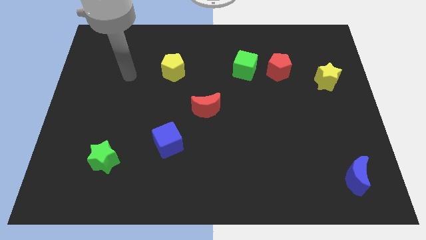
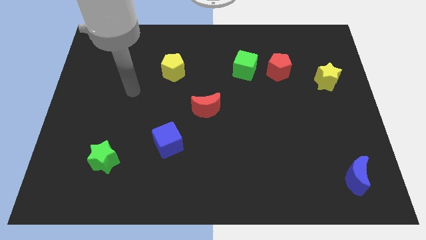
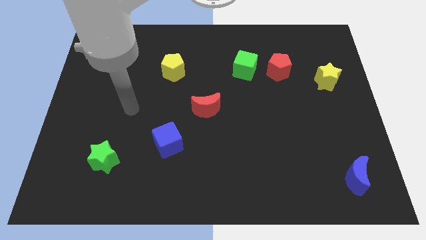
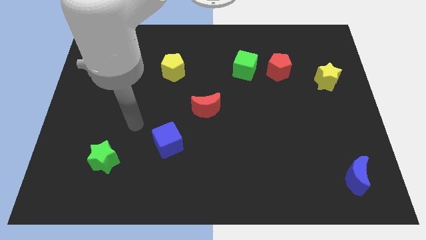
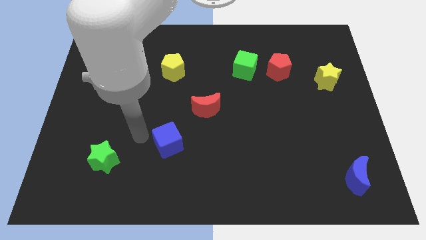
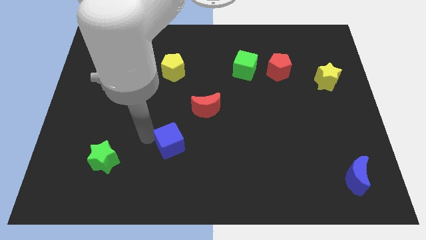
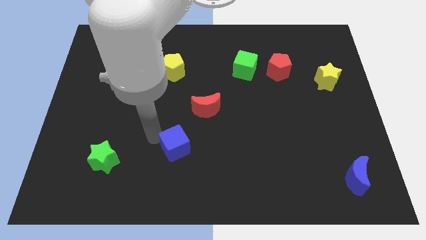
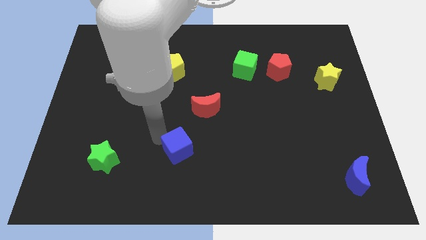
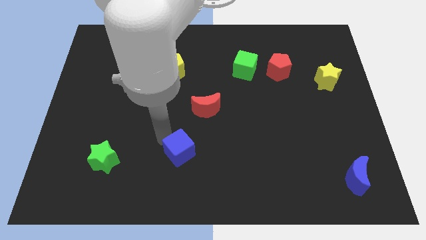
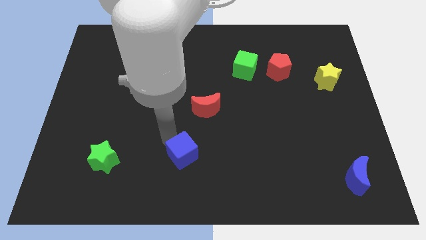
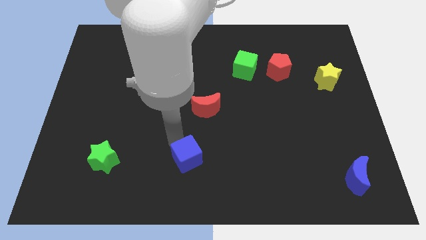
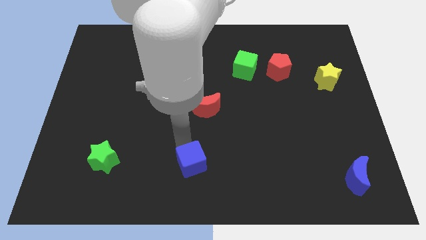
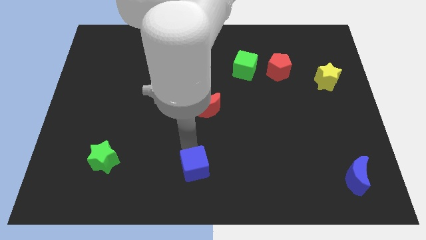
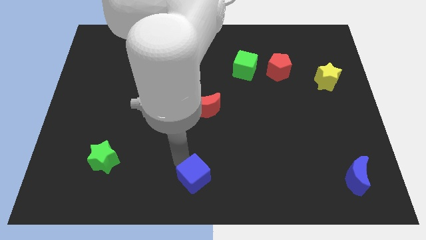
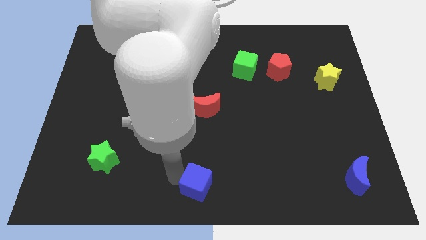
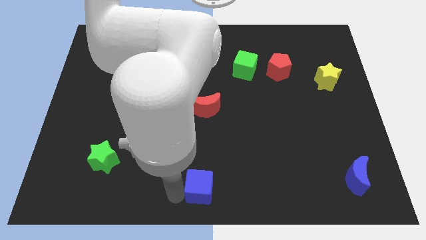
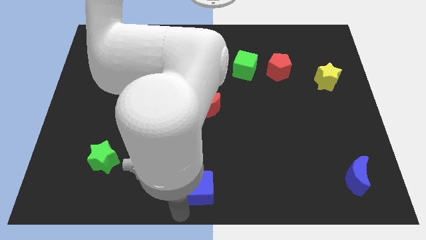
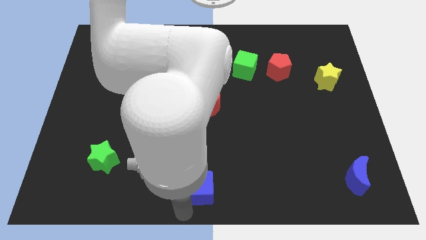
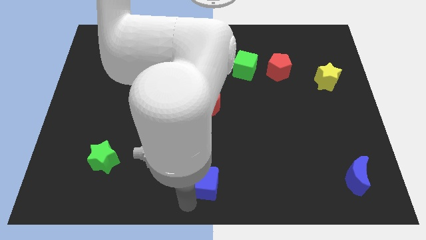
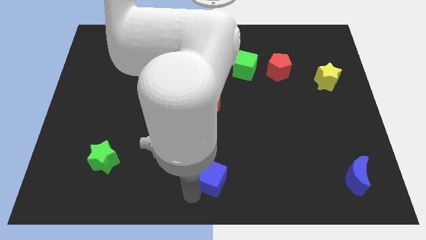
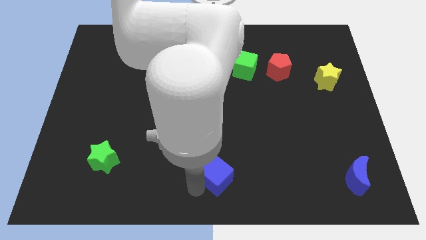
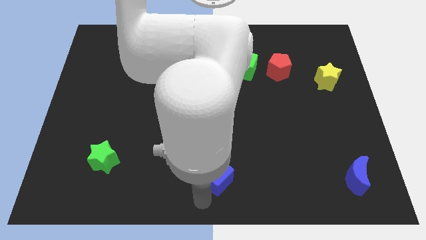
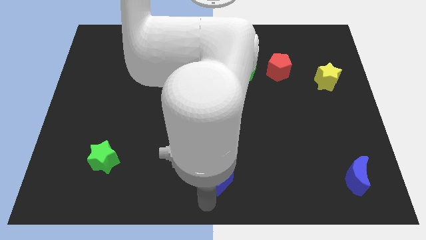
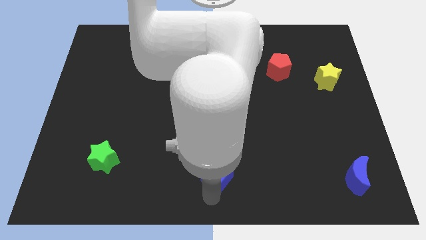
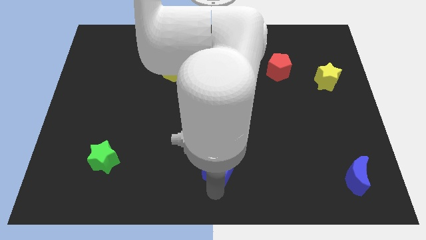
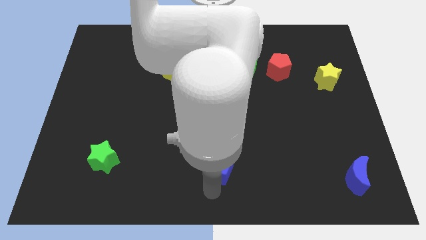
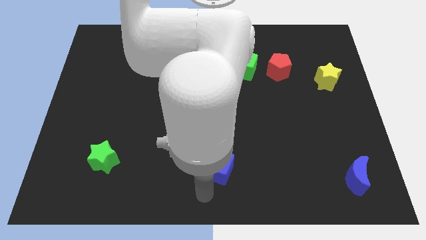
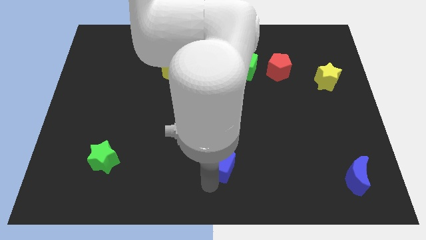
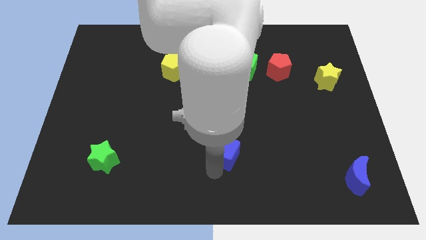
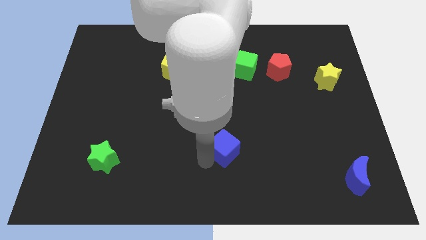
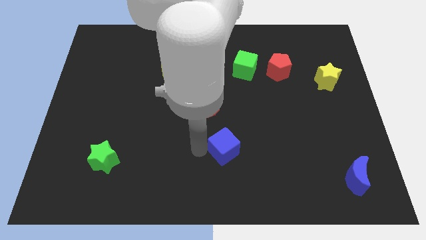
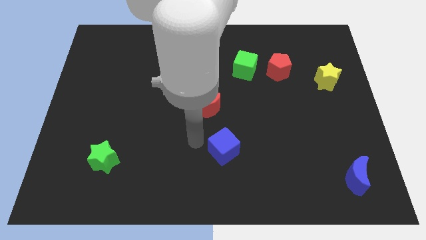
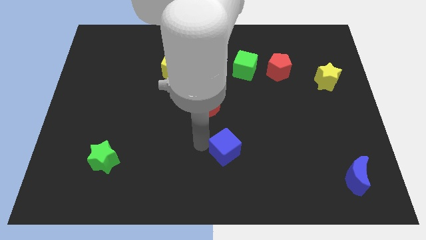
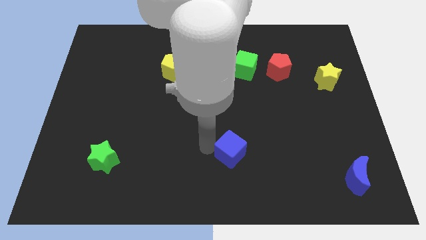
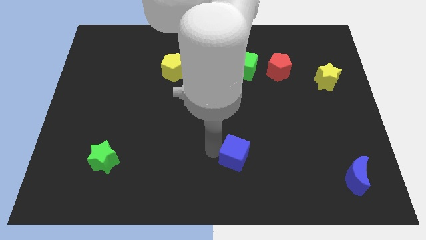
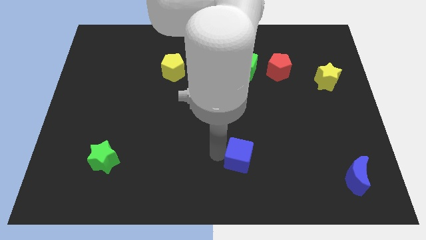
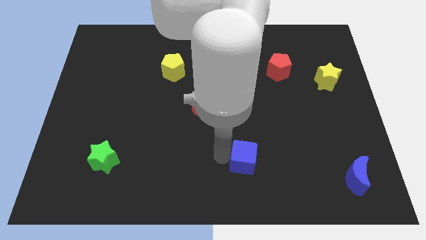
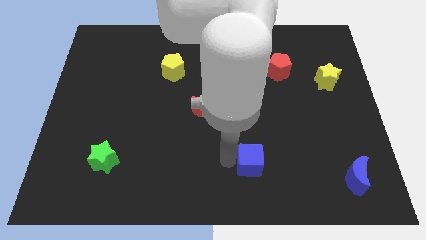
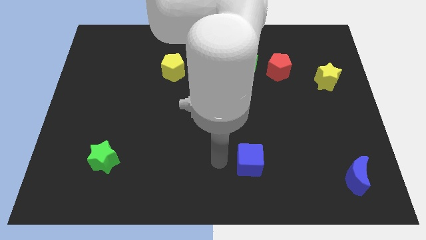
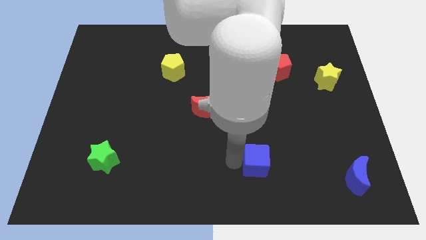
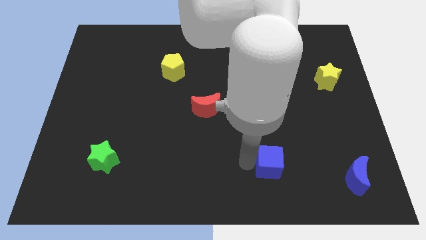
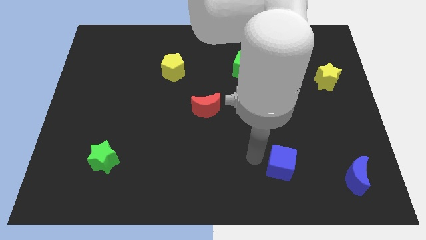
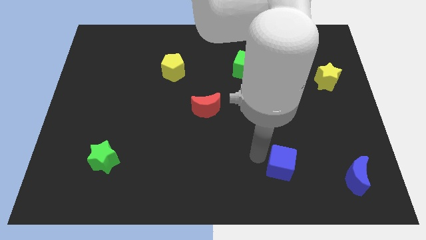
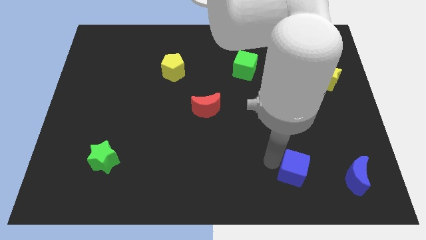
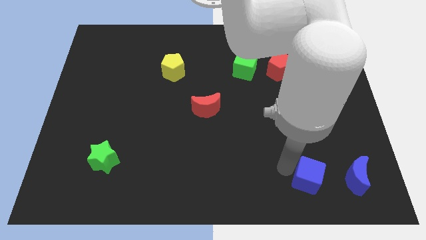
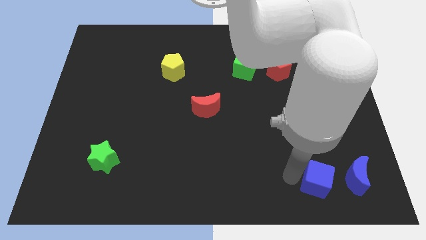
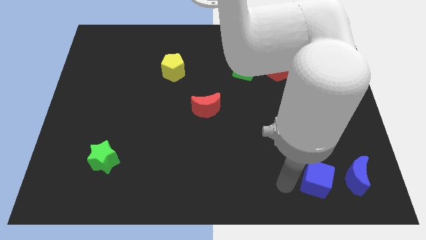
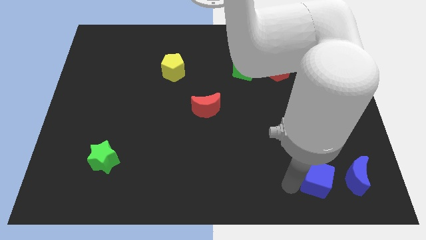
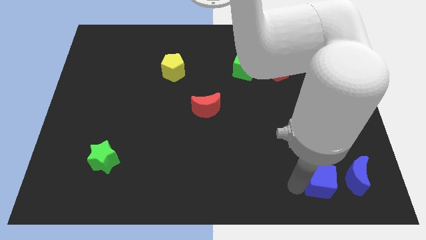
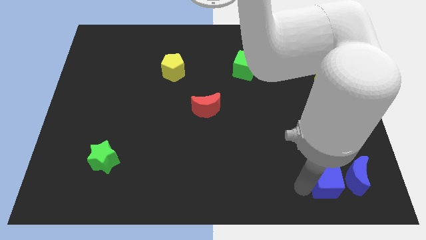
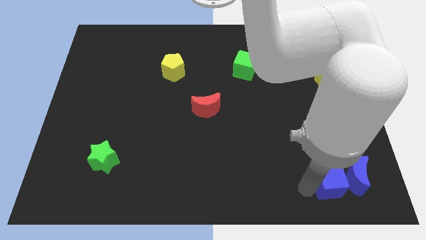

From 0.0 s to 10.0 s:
put the blue cube next to the blue moon

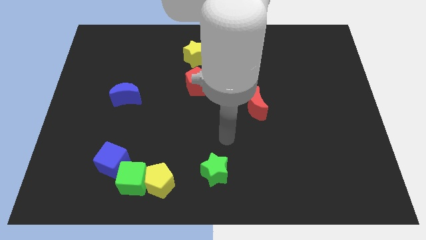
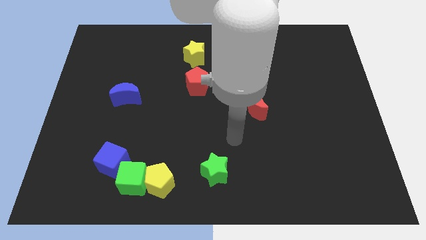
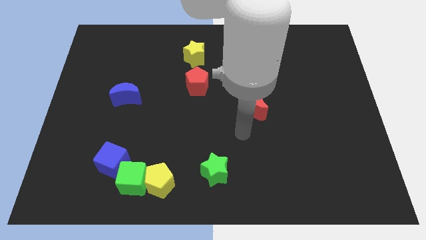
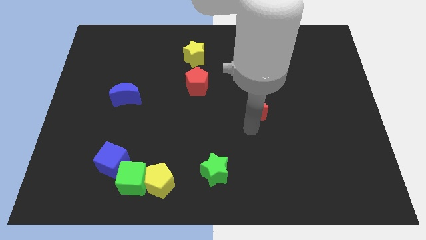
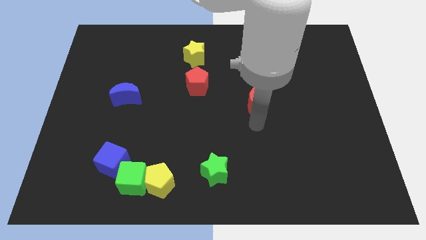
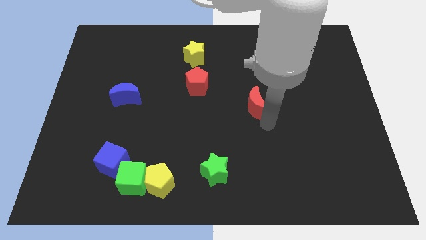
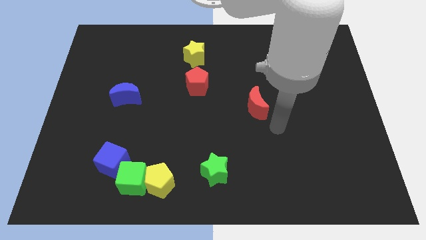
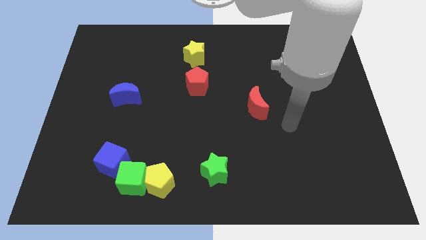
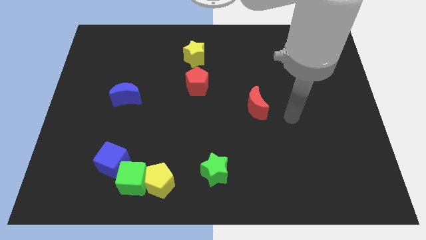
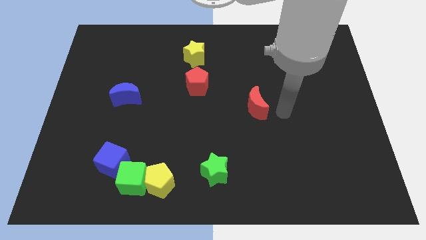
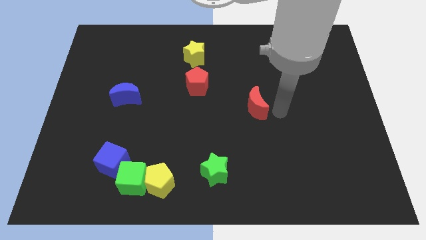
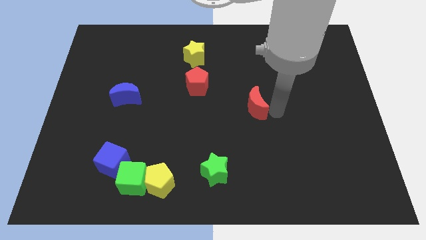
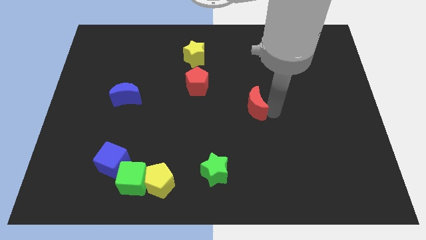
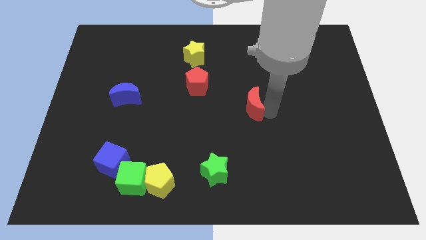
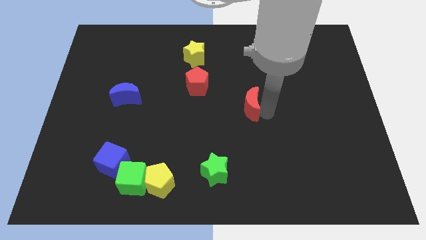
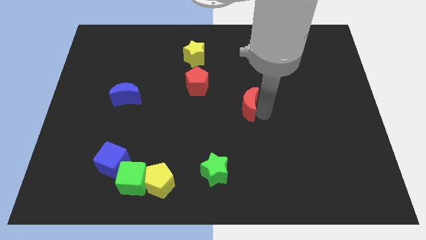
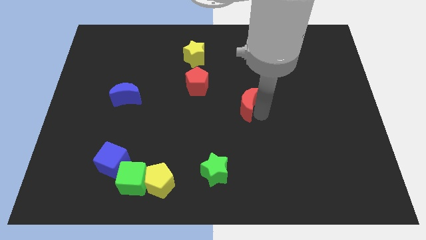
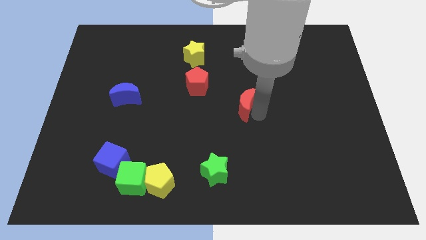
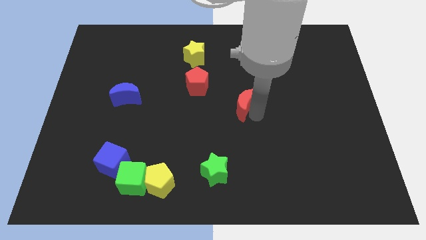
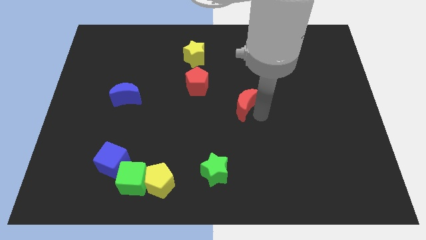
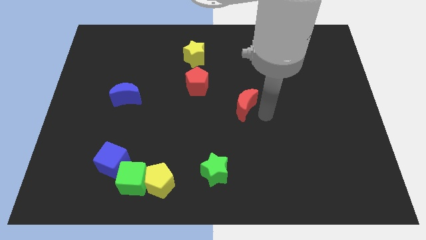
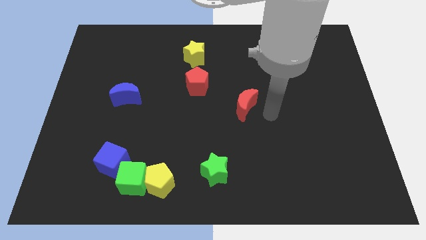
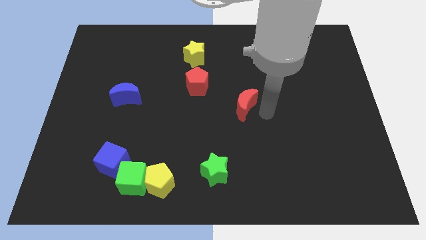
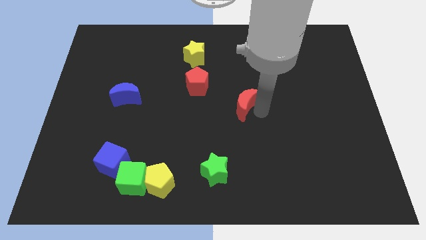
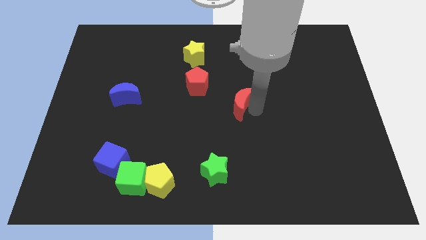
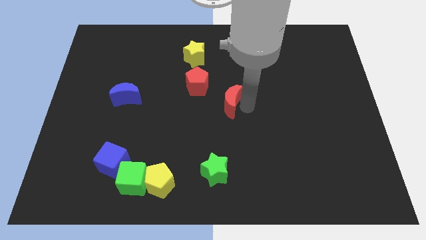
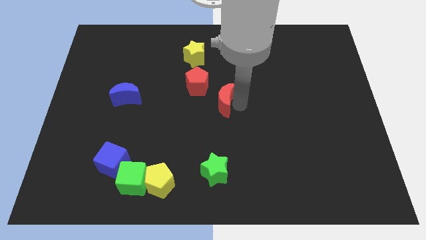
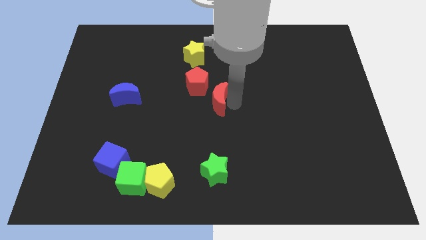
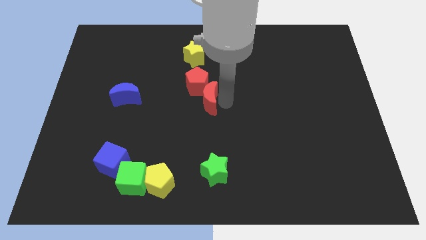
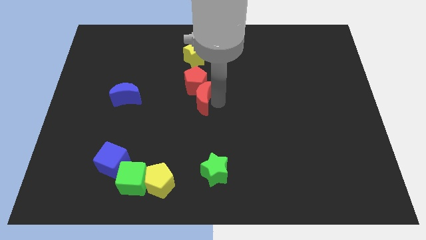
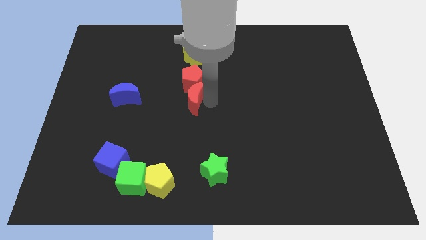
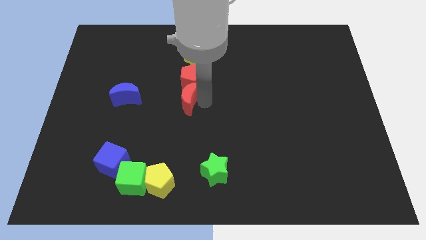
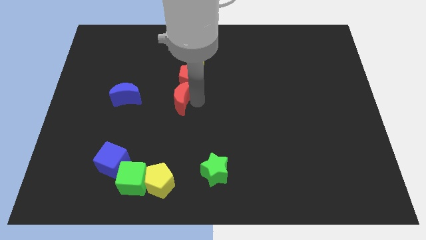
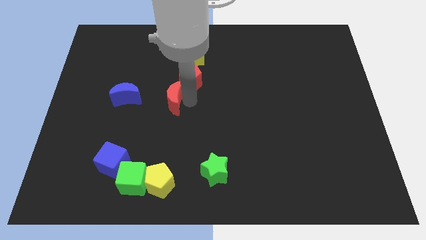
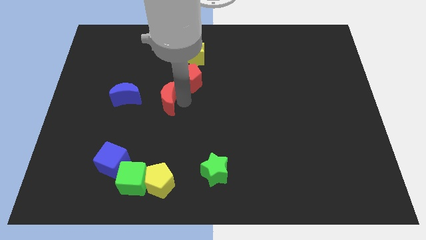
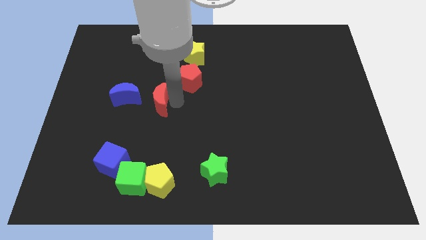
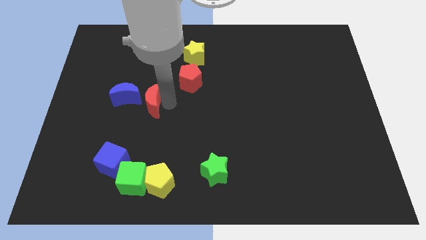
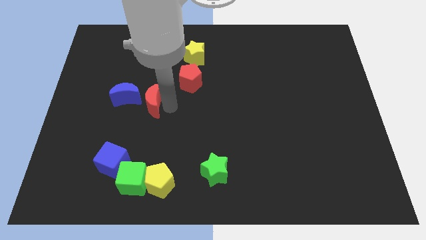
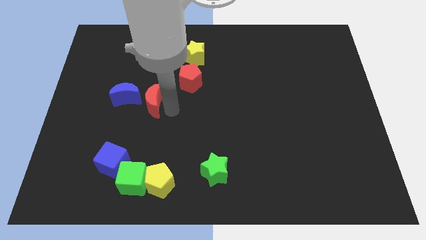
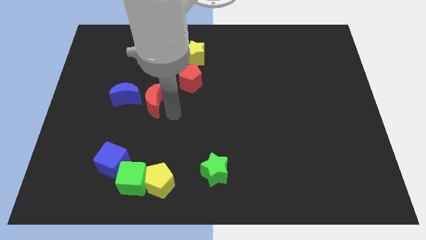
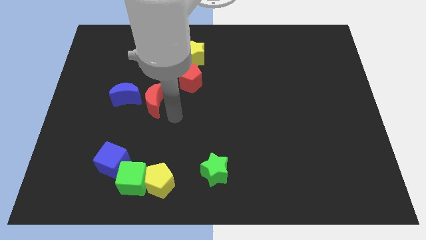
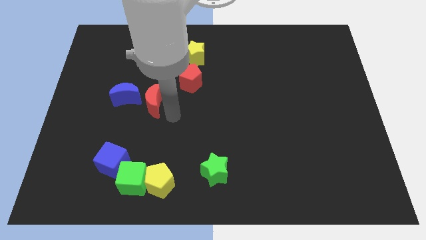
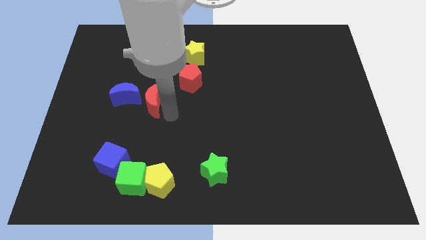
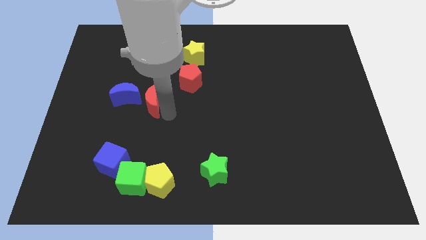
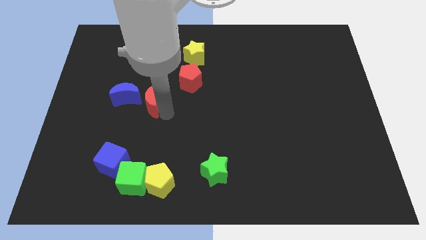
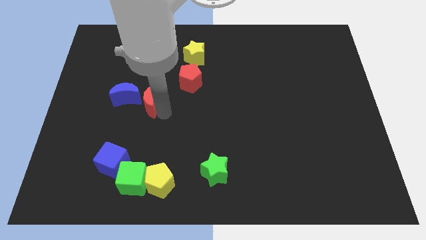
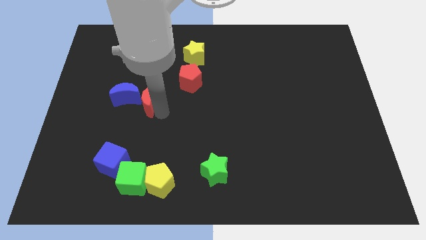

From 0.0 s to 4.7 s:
slide the red moon close to the blue moon
